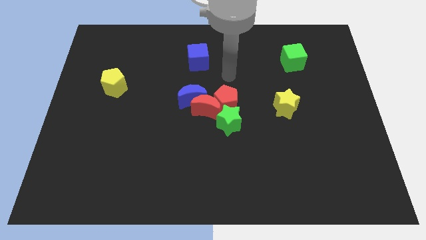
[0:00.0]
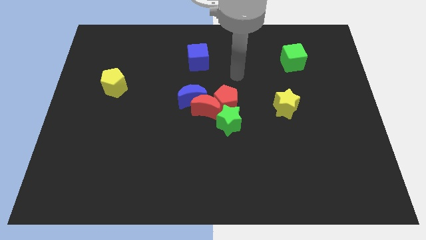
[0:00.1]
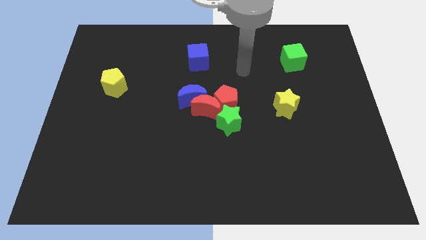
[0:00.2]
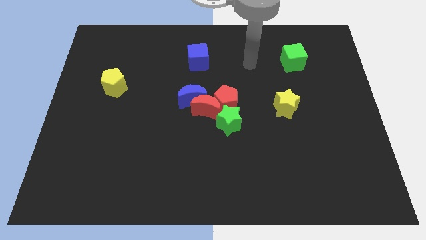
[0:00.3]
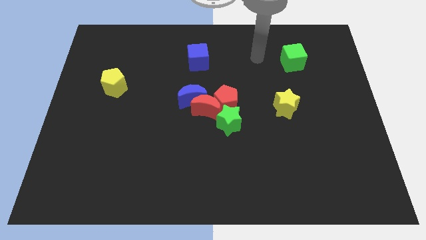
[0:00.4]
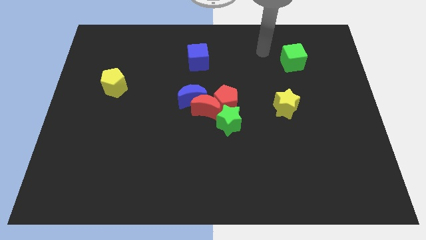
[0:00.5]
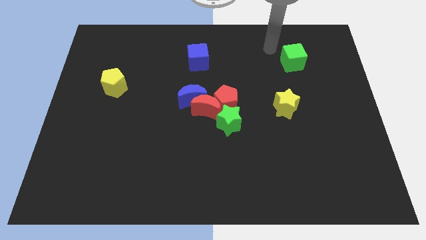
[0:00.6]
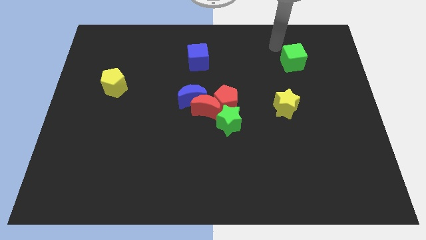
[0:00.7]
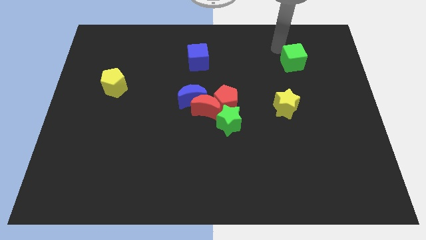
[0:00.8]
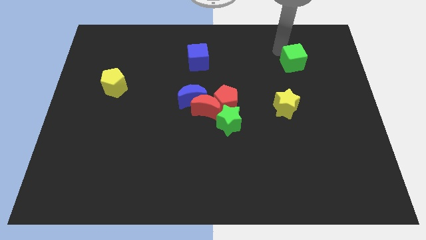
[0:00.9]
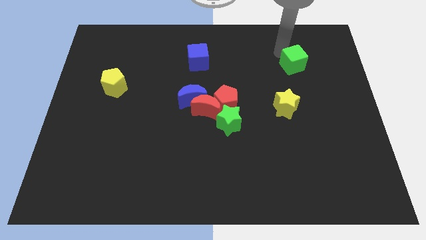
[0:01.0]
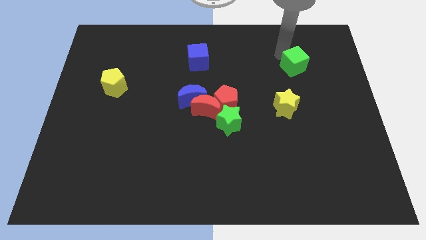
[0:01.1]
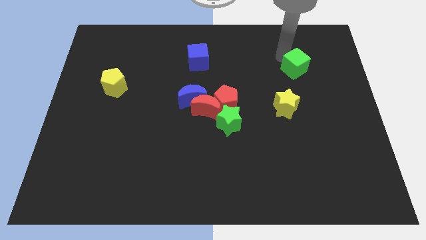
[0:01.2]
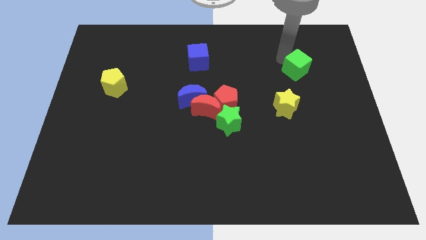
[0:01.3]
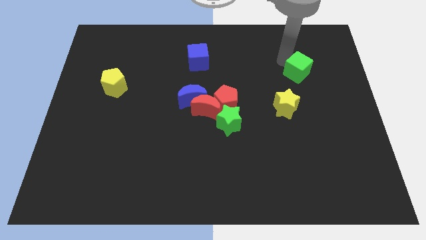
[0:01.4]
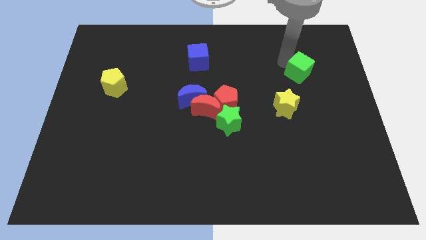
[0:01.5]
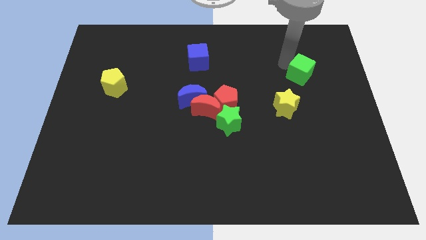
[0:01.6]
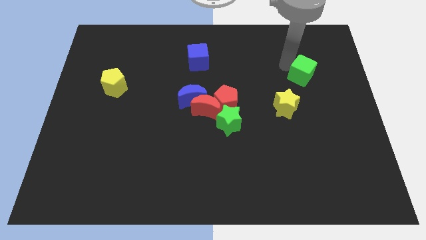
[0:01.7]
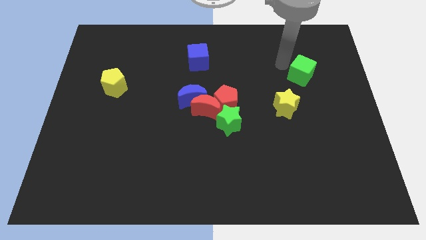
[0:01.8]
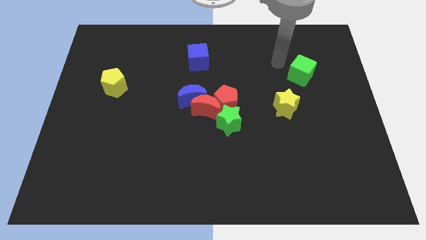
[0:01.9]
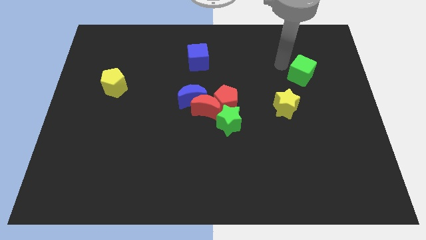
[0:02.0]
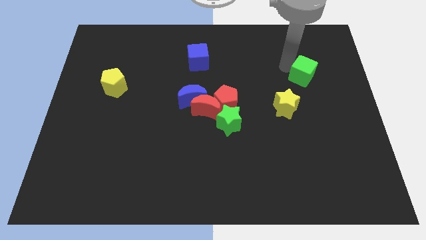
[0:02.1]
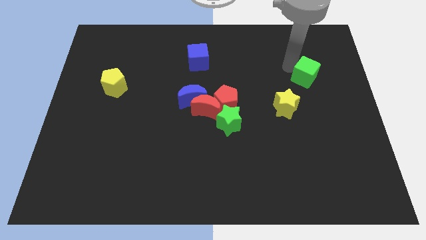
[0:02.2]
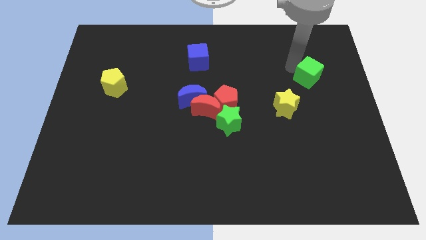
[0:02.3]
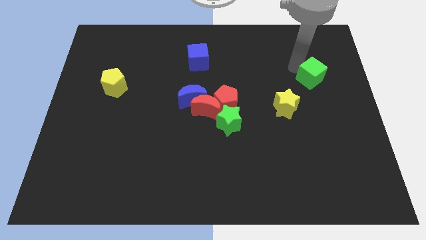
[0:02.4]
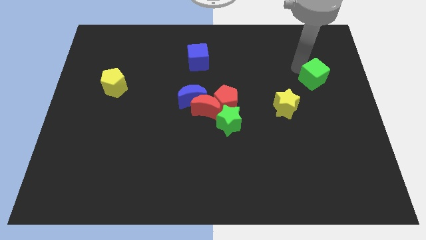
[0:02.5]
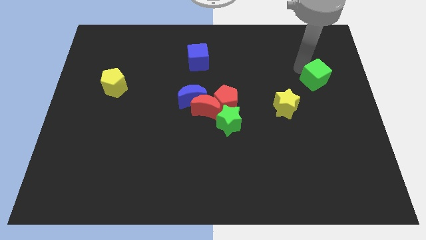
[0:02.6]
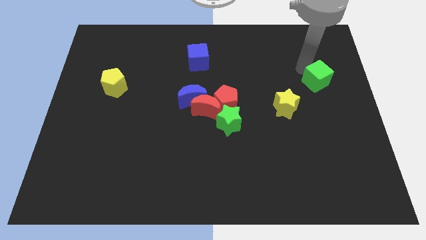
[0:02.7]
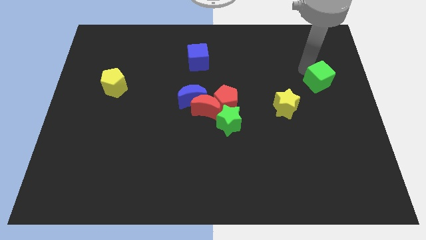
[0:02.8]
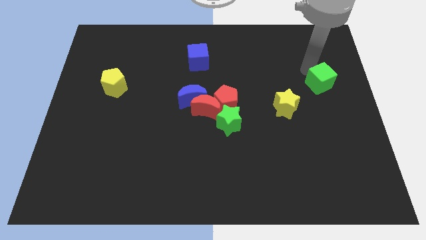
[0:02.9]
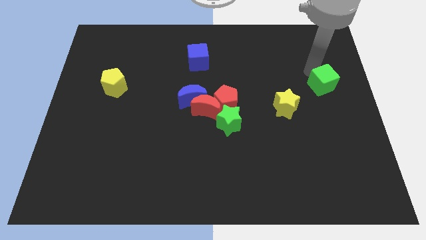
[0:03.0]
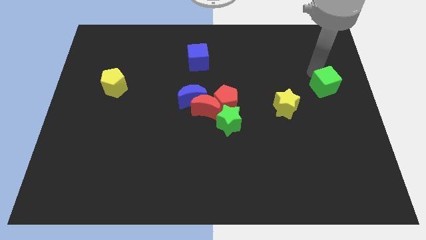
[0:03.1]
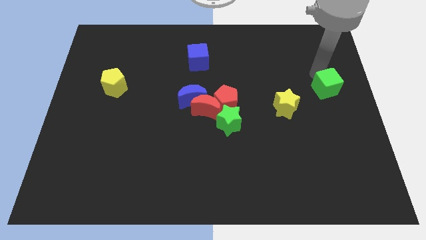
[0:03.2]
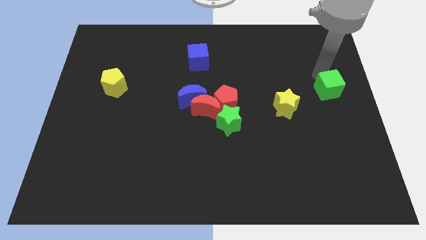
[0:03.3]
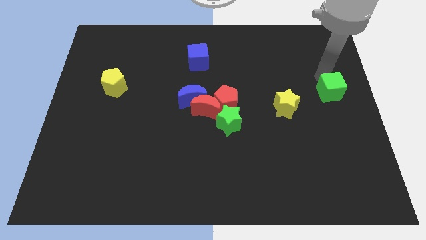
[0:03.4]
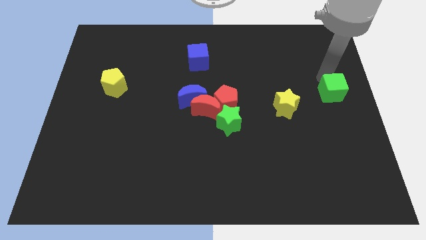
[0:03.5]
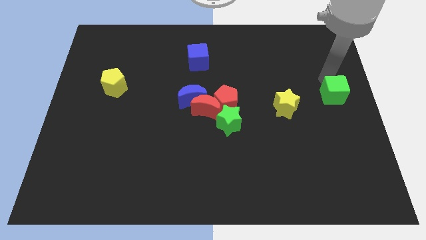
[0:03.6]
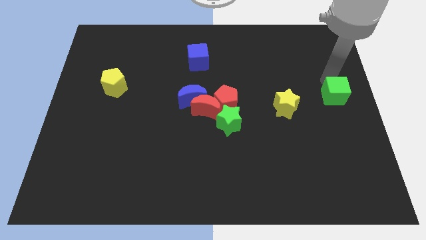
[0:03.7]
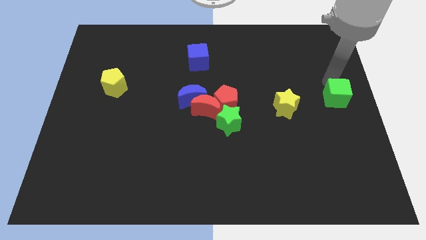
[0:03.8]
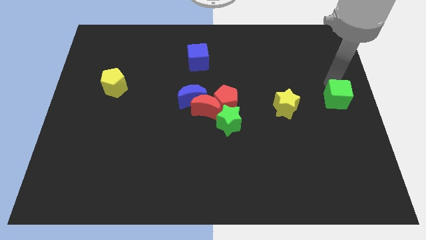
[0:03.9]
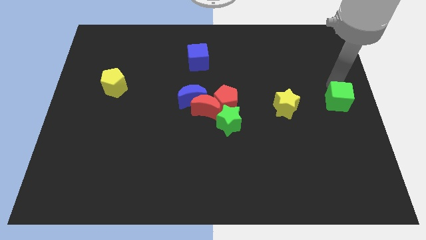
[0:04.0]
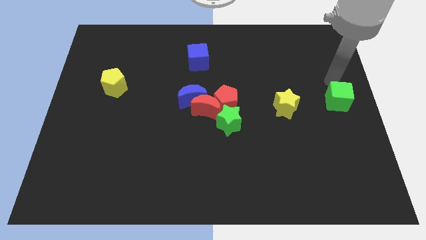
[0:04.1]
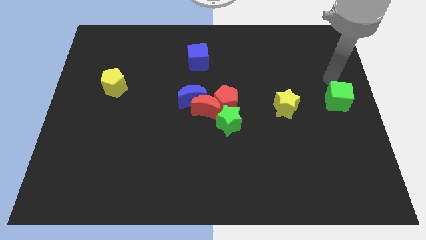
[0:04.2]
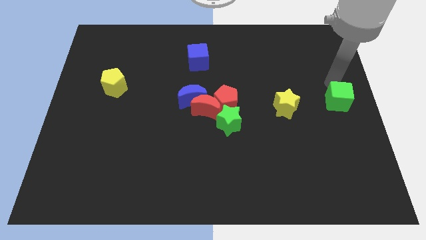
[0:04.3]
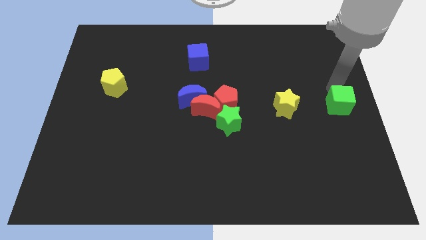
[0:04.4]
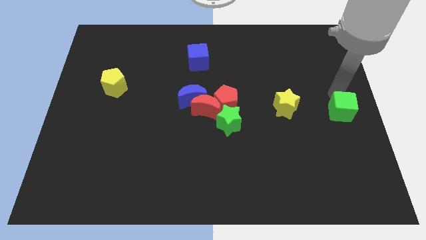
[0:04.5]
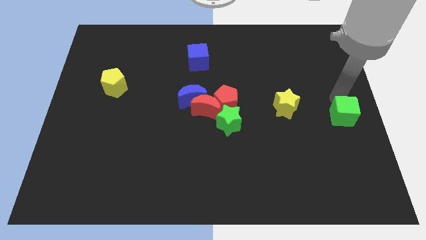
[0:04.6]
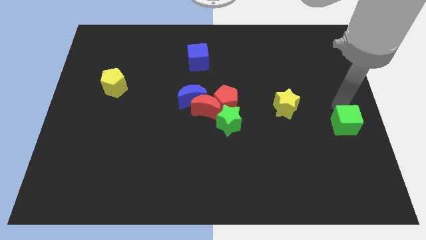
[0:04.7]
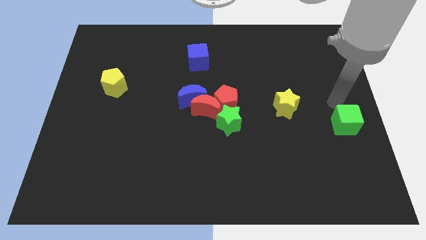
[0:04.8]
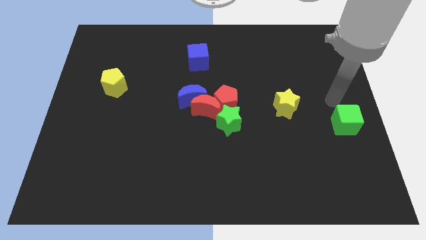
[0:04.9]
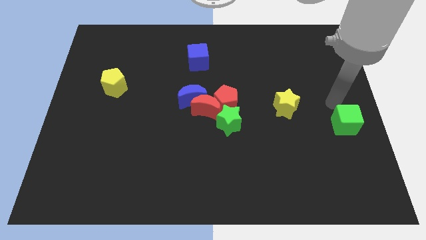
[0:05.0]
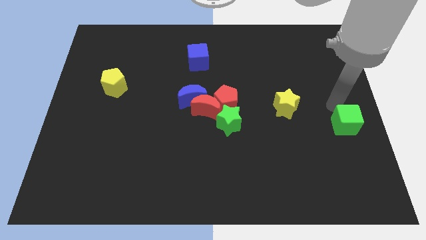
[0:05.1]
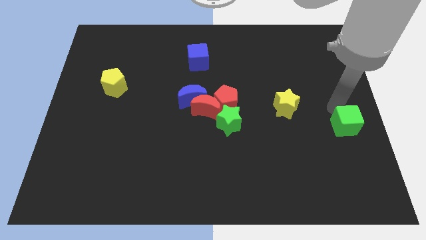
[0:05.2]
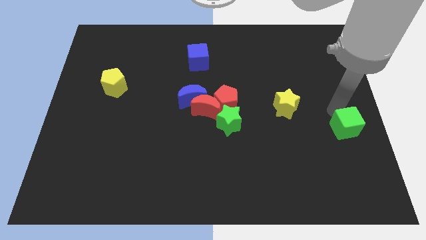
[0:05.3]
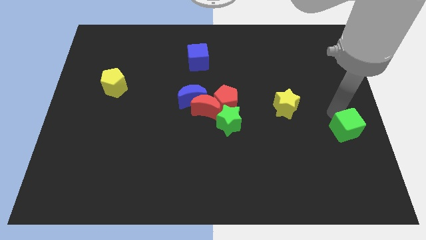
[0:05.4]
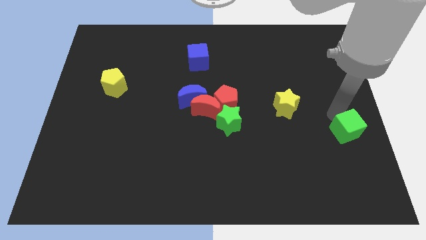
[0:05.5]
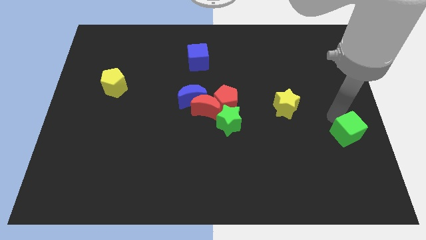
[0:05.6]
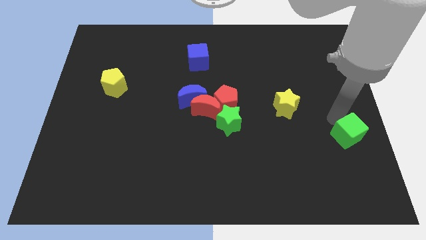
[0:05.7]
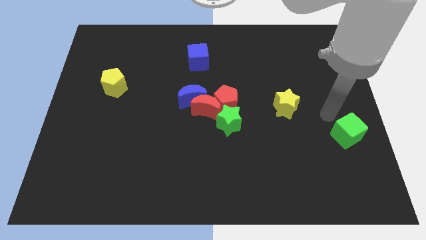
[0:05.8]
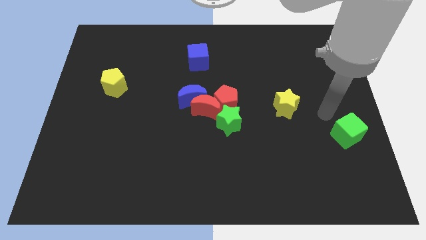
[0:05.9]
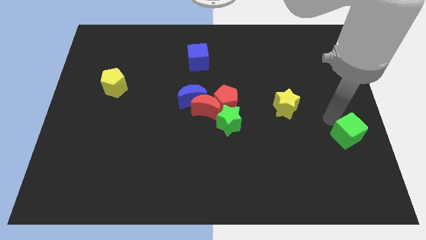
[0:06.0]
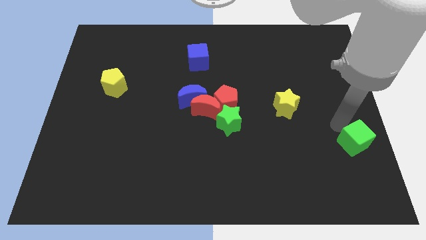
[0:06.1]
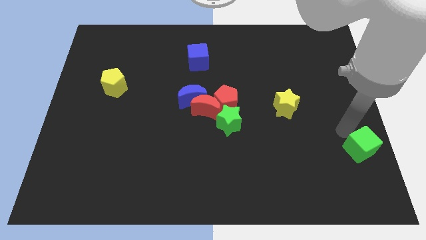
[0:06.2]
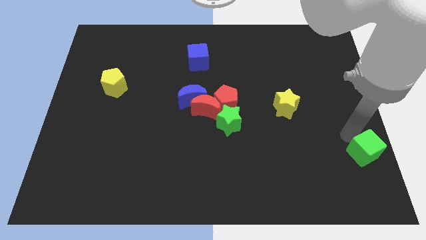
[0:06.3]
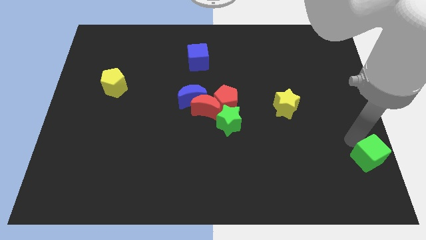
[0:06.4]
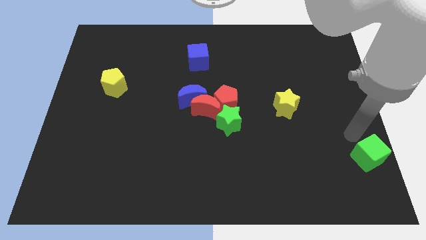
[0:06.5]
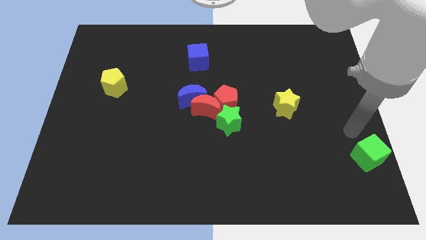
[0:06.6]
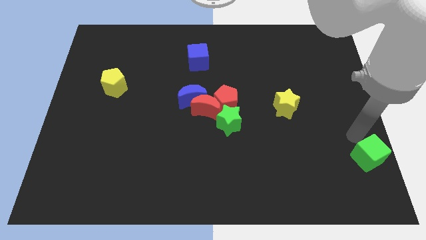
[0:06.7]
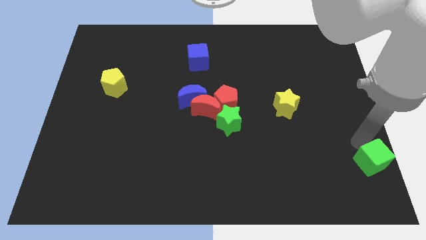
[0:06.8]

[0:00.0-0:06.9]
put the green cube to the lower right corner
